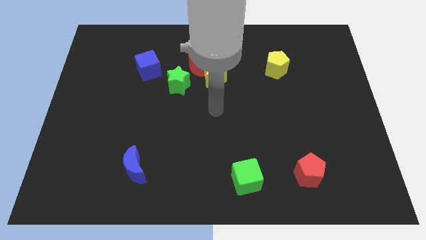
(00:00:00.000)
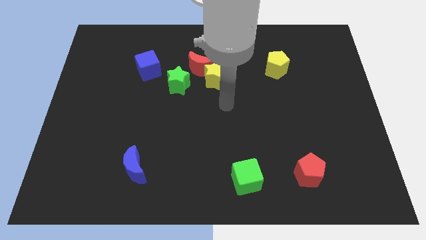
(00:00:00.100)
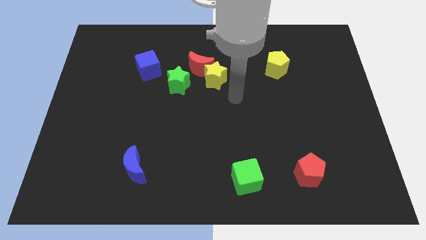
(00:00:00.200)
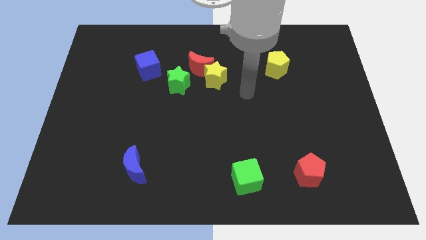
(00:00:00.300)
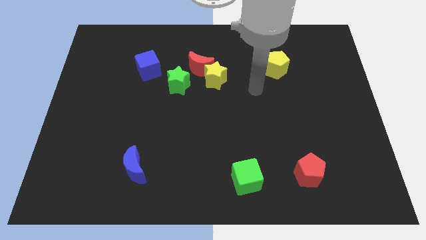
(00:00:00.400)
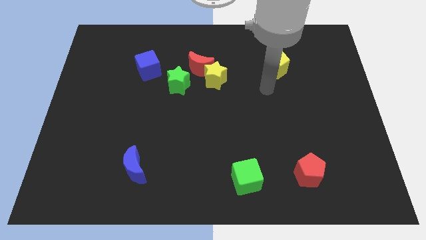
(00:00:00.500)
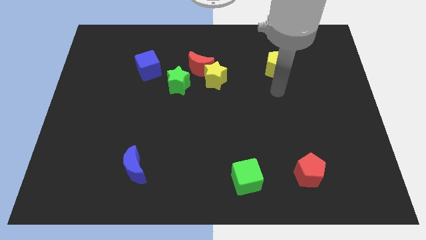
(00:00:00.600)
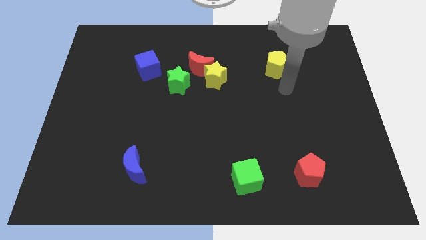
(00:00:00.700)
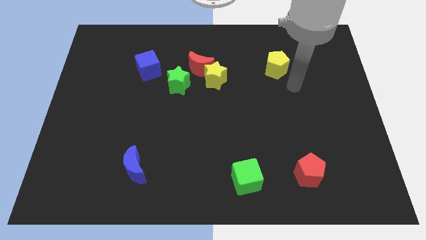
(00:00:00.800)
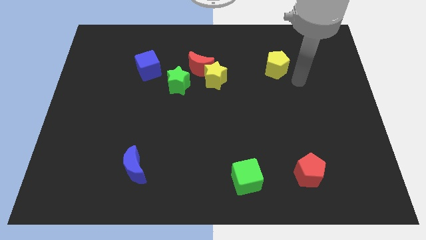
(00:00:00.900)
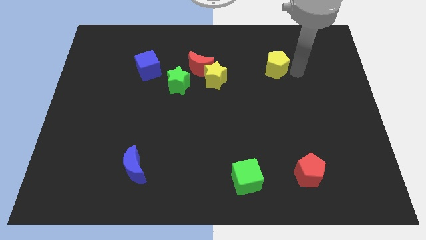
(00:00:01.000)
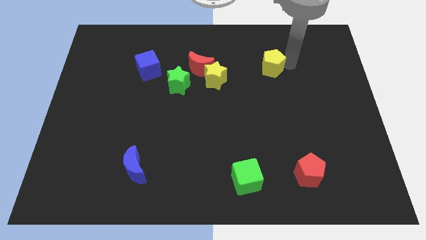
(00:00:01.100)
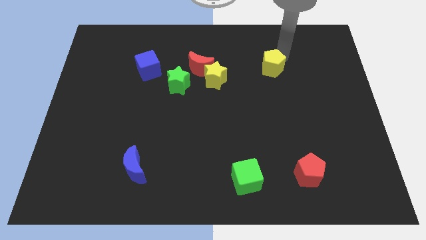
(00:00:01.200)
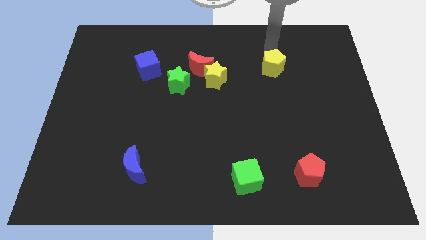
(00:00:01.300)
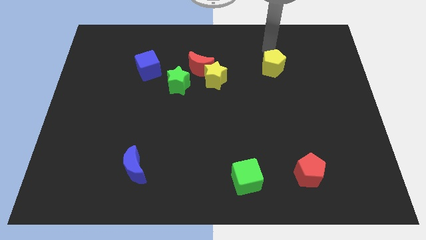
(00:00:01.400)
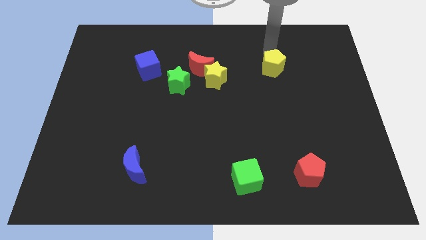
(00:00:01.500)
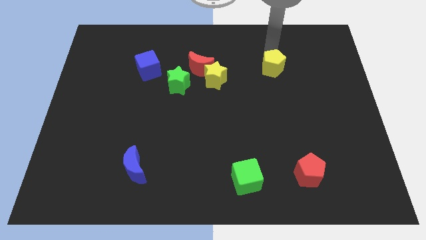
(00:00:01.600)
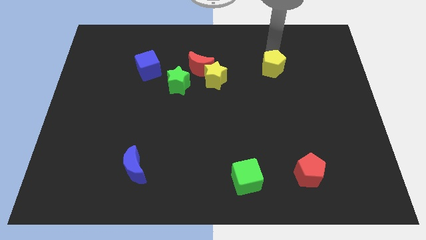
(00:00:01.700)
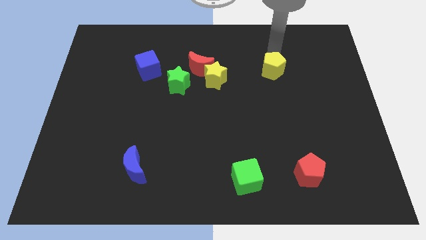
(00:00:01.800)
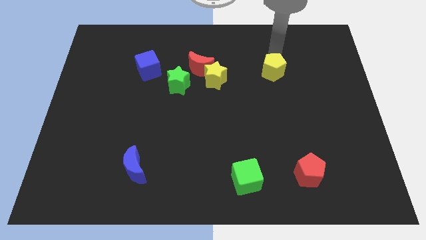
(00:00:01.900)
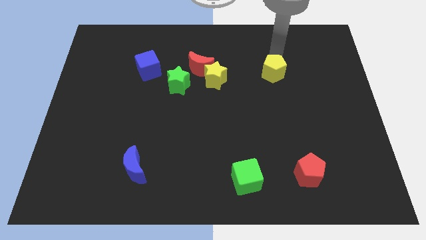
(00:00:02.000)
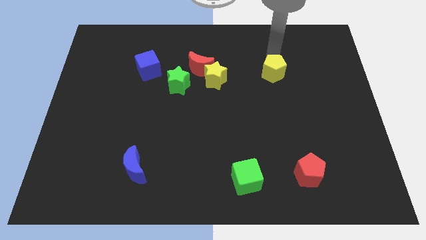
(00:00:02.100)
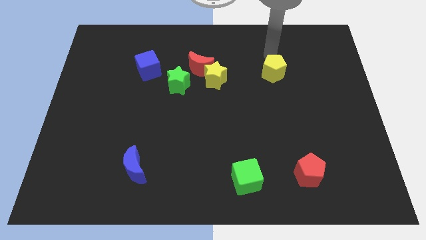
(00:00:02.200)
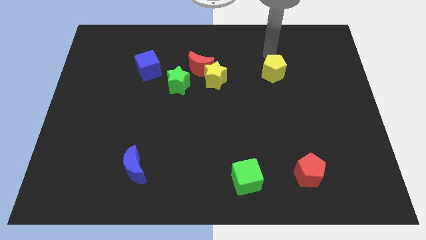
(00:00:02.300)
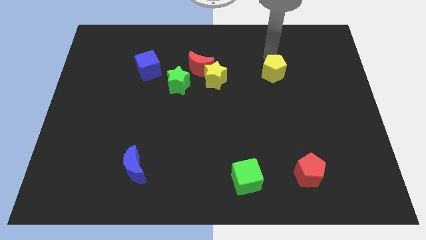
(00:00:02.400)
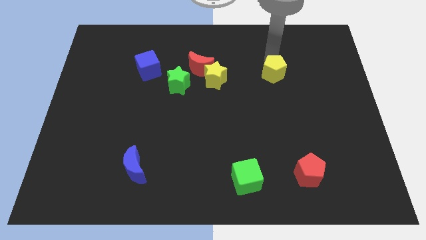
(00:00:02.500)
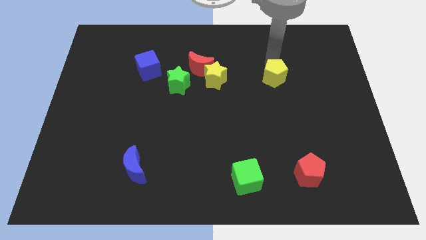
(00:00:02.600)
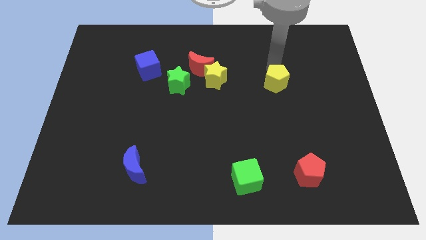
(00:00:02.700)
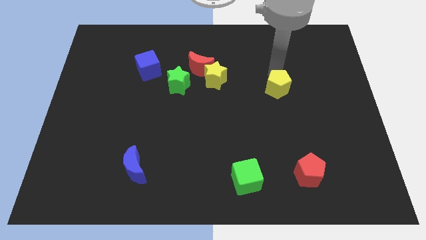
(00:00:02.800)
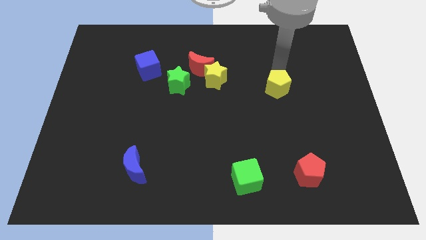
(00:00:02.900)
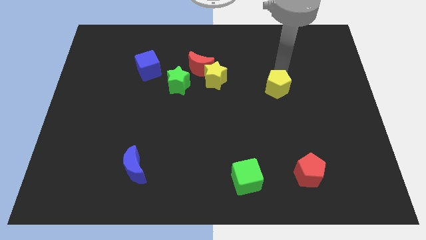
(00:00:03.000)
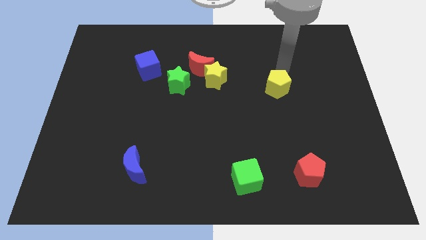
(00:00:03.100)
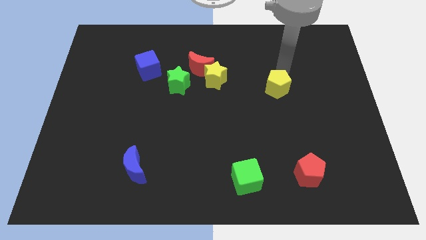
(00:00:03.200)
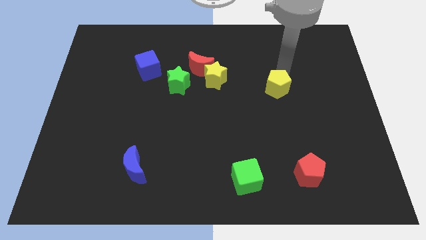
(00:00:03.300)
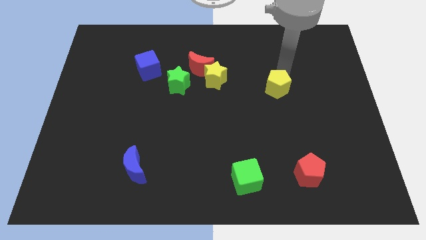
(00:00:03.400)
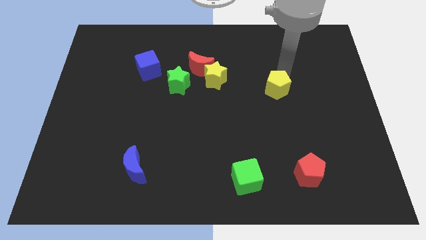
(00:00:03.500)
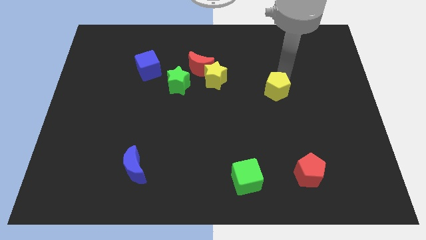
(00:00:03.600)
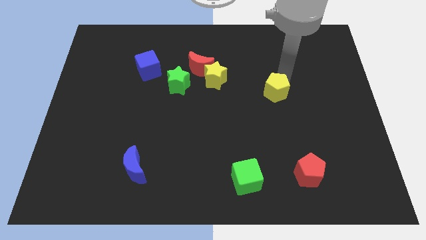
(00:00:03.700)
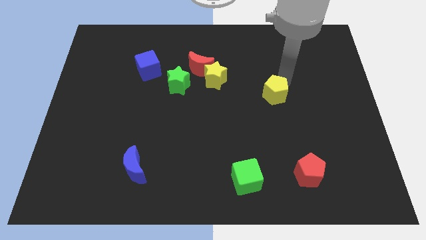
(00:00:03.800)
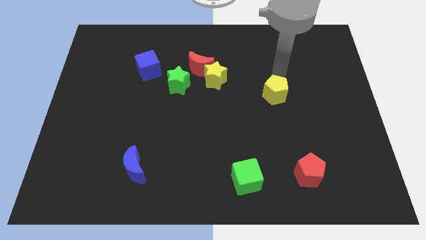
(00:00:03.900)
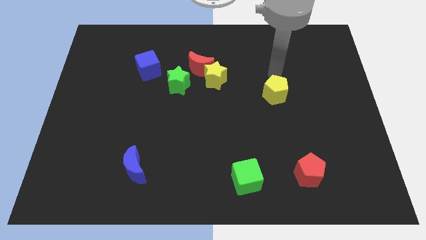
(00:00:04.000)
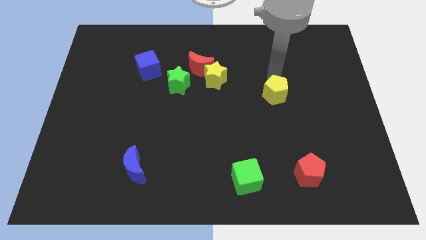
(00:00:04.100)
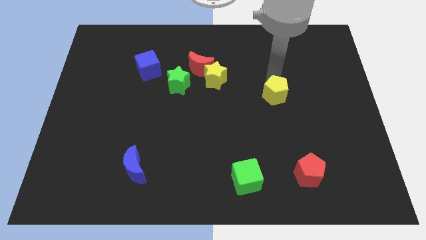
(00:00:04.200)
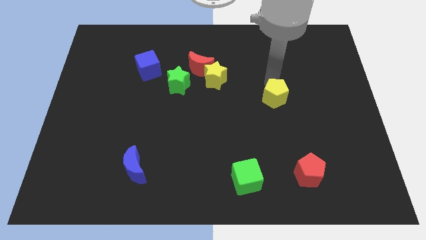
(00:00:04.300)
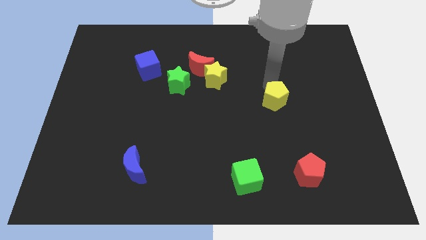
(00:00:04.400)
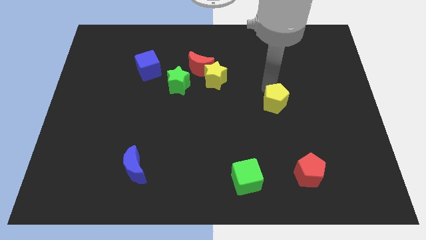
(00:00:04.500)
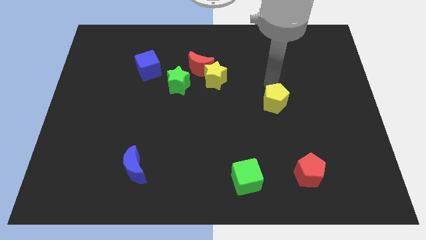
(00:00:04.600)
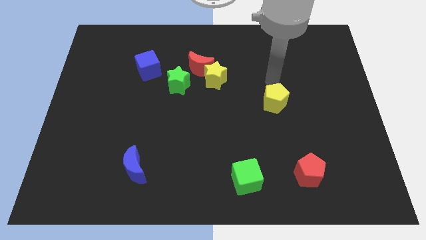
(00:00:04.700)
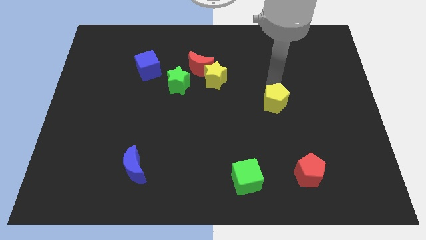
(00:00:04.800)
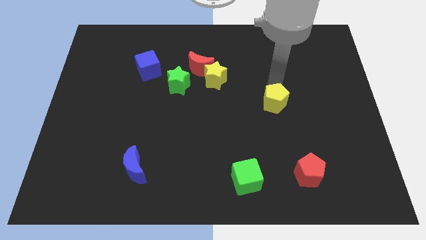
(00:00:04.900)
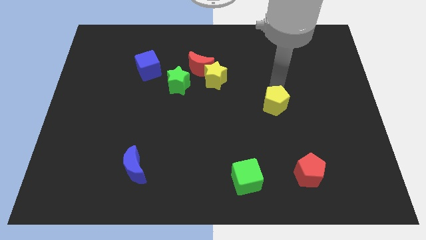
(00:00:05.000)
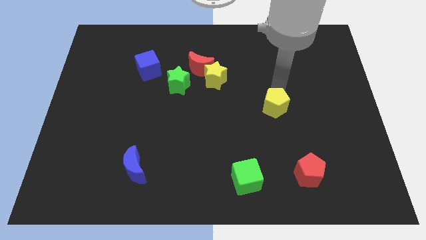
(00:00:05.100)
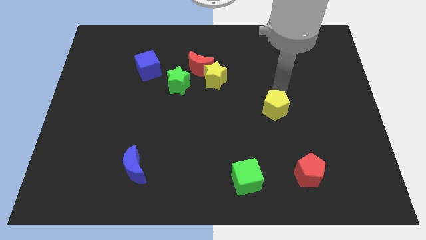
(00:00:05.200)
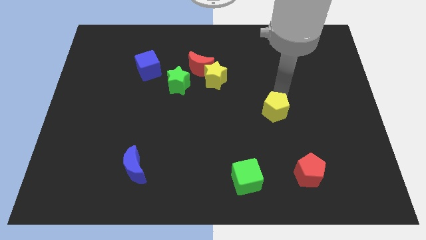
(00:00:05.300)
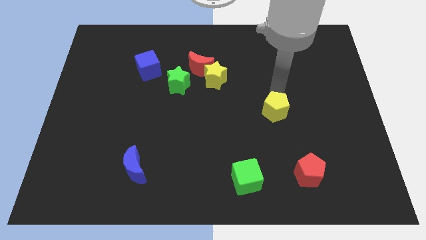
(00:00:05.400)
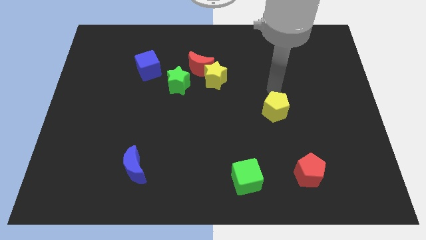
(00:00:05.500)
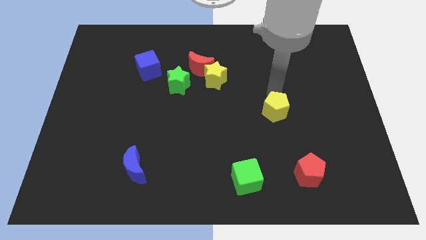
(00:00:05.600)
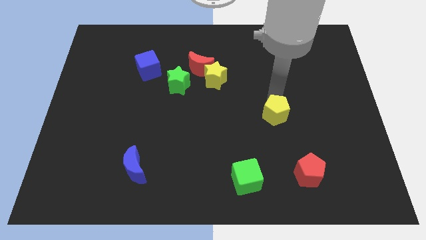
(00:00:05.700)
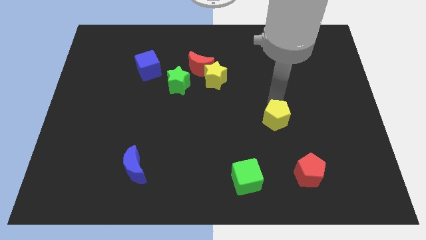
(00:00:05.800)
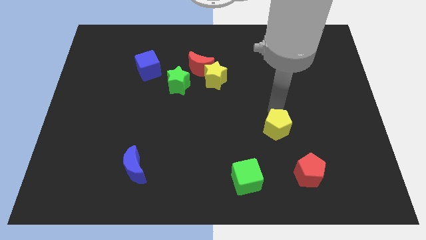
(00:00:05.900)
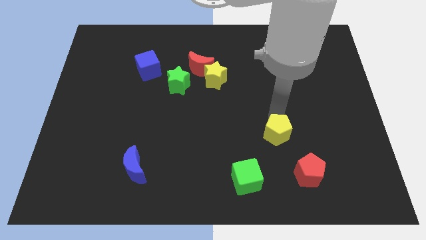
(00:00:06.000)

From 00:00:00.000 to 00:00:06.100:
move the yellow pentagon to the top left of the red pentagon

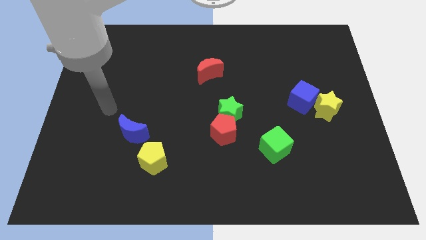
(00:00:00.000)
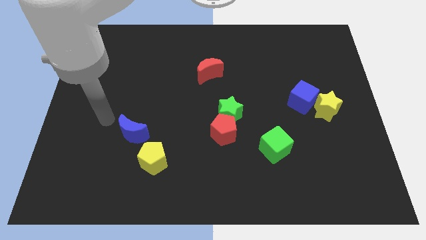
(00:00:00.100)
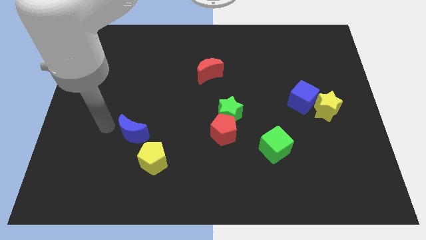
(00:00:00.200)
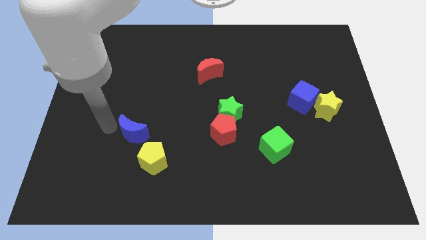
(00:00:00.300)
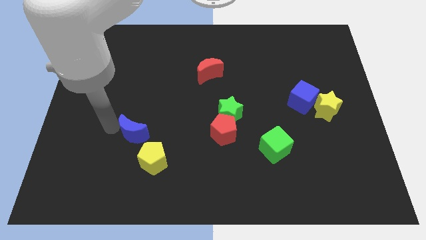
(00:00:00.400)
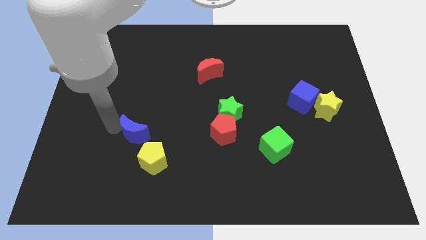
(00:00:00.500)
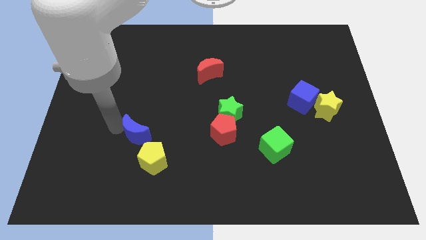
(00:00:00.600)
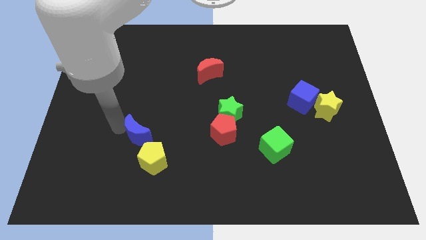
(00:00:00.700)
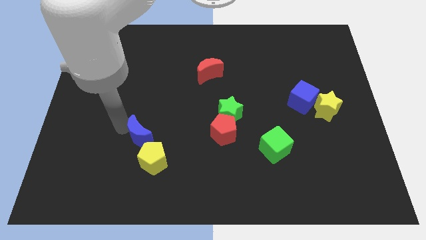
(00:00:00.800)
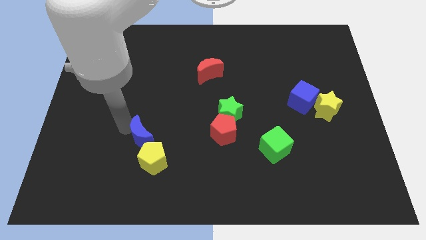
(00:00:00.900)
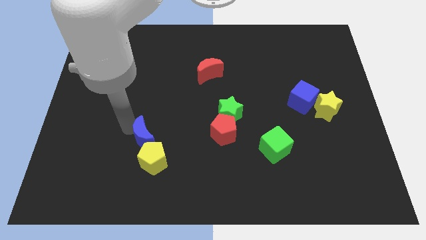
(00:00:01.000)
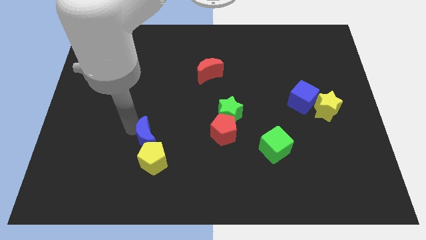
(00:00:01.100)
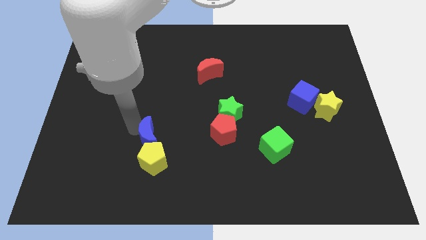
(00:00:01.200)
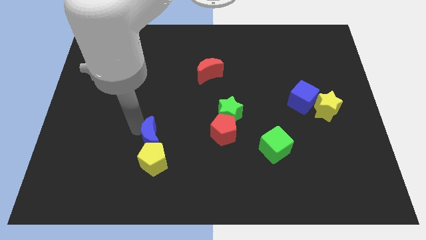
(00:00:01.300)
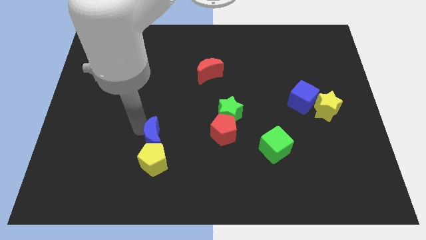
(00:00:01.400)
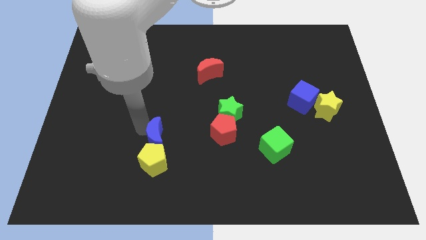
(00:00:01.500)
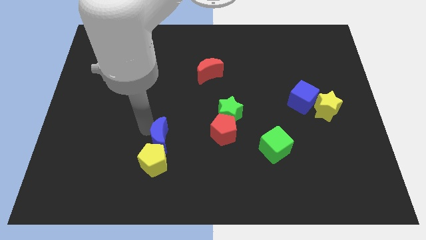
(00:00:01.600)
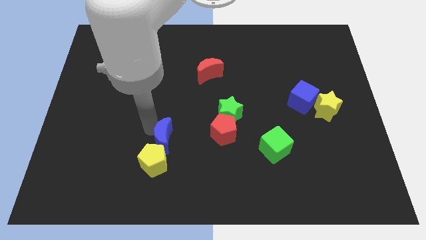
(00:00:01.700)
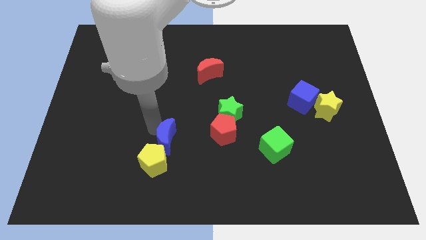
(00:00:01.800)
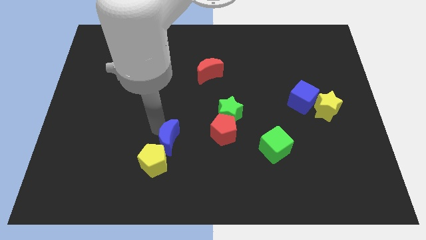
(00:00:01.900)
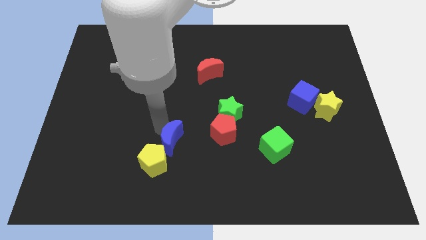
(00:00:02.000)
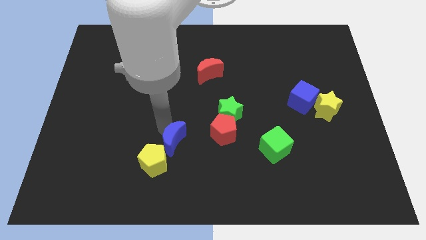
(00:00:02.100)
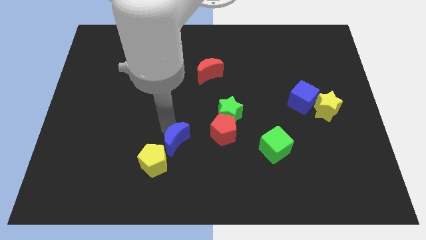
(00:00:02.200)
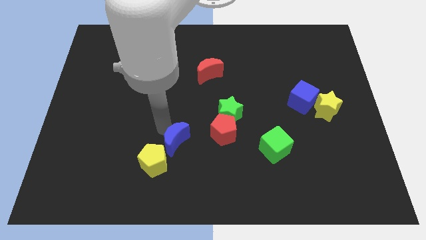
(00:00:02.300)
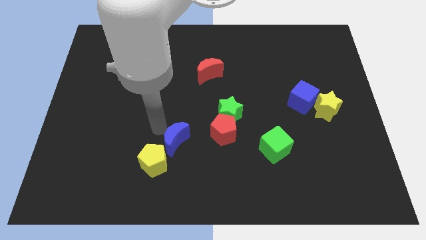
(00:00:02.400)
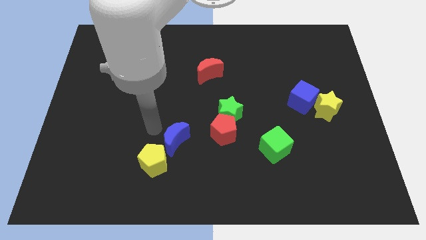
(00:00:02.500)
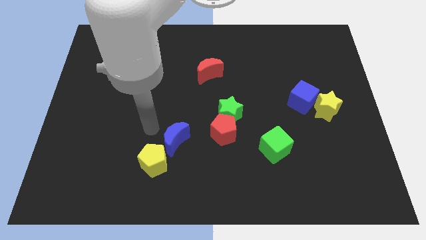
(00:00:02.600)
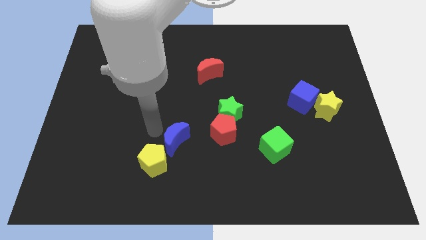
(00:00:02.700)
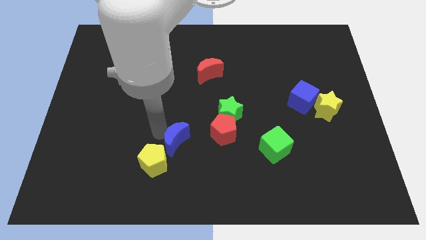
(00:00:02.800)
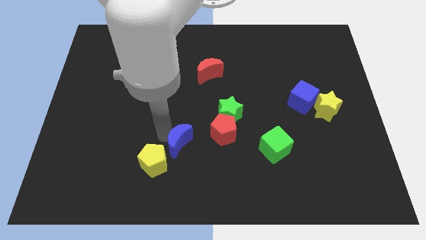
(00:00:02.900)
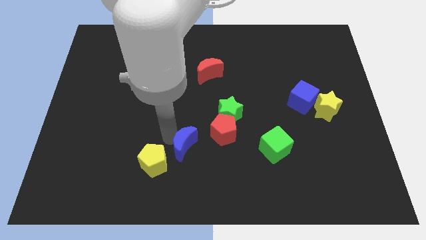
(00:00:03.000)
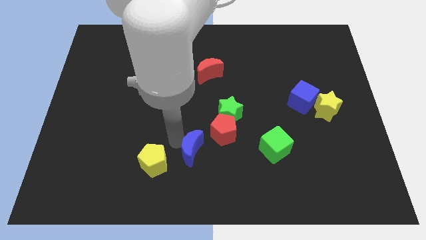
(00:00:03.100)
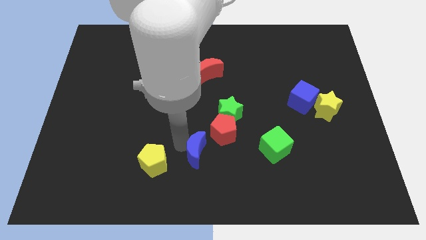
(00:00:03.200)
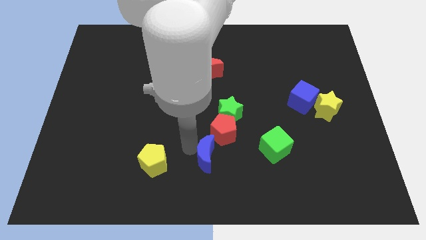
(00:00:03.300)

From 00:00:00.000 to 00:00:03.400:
move the blue moon below the red pentagon
